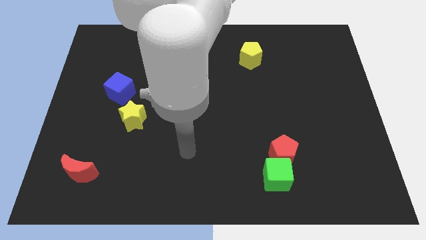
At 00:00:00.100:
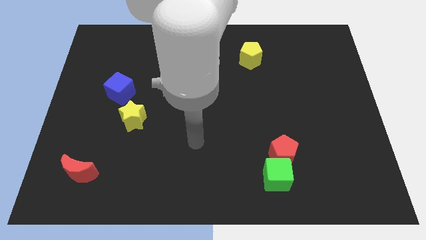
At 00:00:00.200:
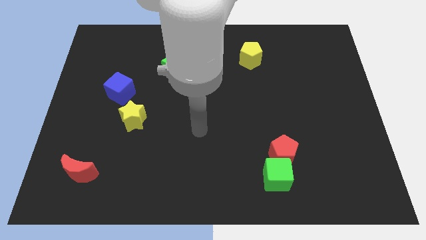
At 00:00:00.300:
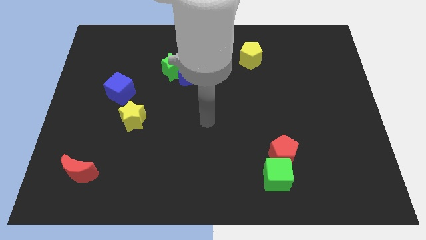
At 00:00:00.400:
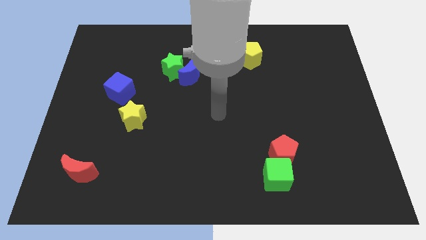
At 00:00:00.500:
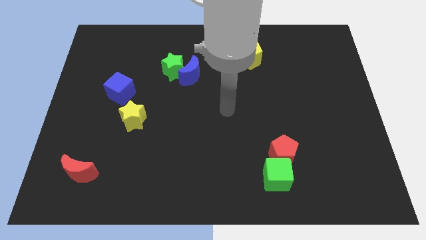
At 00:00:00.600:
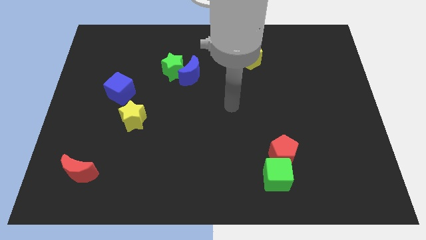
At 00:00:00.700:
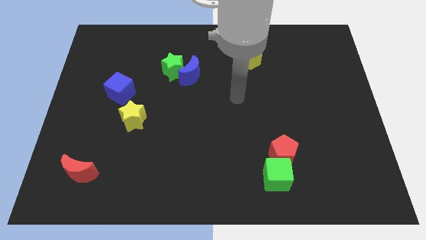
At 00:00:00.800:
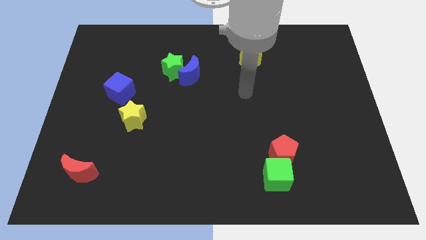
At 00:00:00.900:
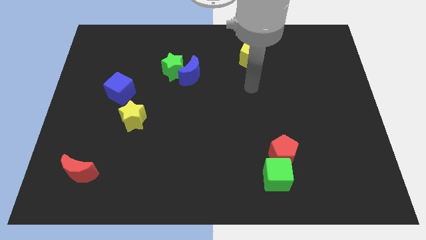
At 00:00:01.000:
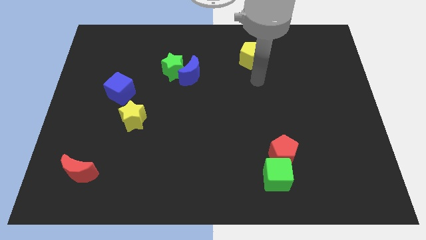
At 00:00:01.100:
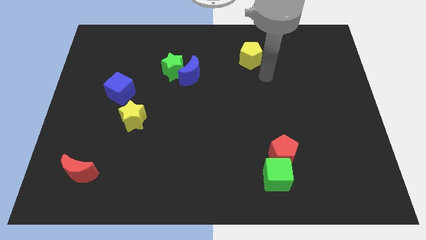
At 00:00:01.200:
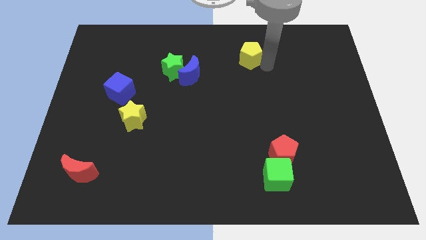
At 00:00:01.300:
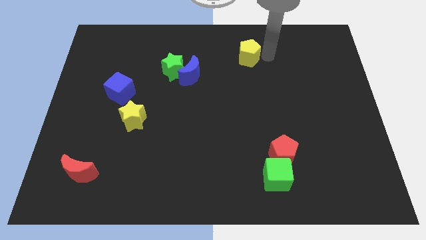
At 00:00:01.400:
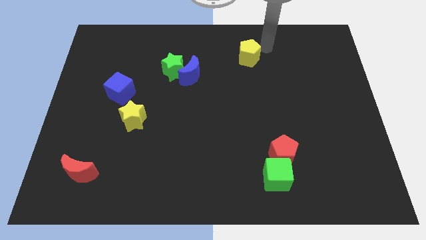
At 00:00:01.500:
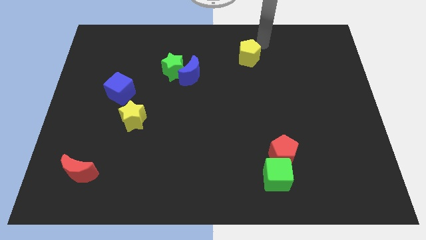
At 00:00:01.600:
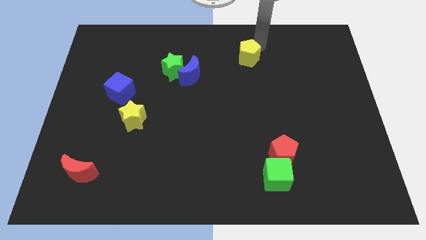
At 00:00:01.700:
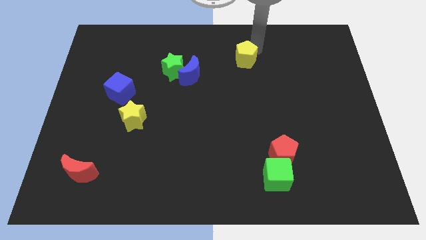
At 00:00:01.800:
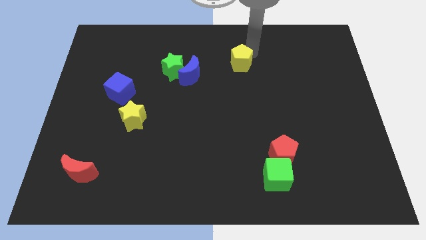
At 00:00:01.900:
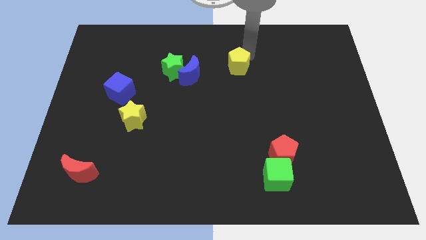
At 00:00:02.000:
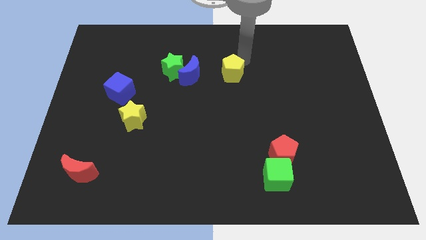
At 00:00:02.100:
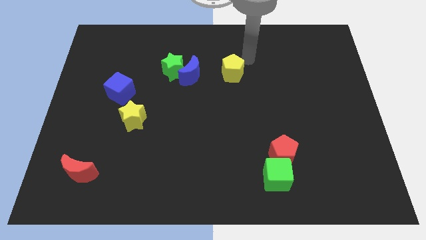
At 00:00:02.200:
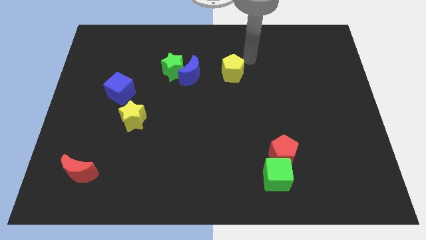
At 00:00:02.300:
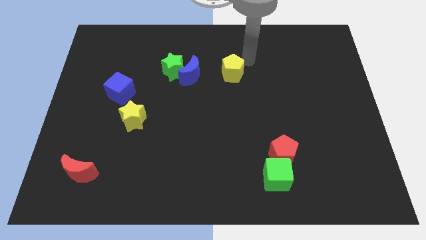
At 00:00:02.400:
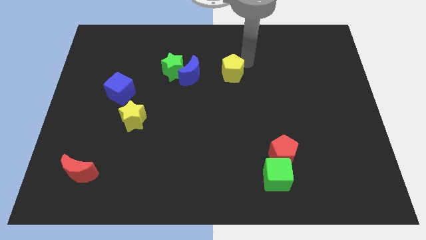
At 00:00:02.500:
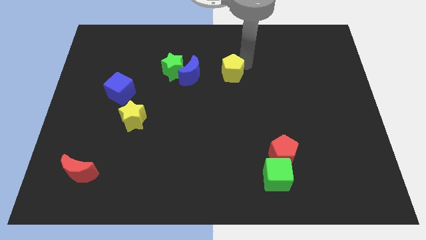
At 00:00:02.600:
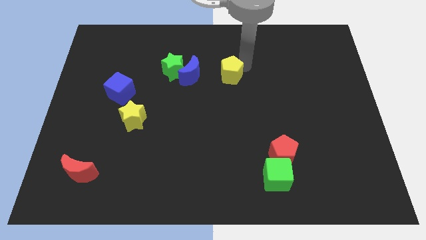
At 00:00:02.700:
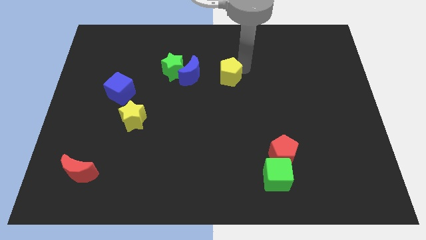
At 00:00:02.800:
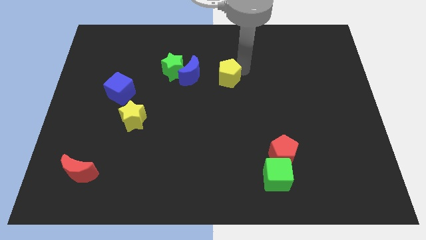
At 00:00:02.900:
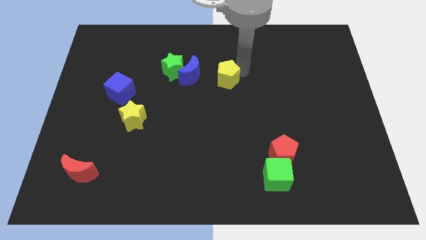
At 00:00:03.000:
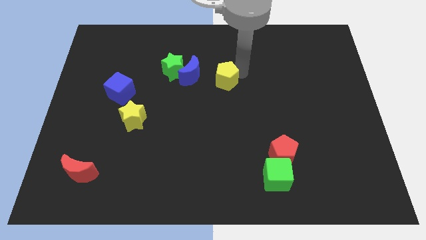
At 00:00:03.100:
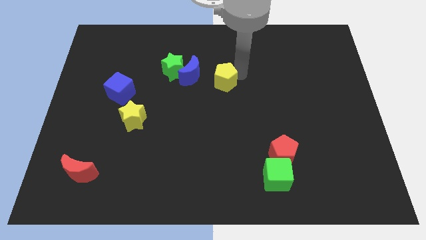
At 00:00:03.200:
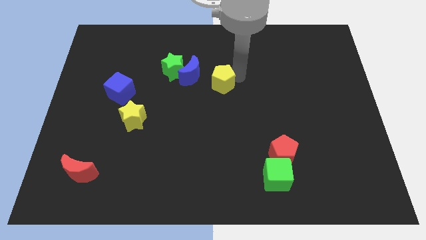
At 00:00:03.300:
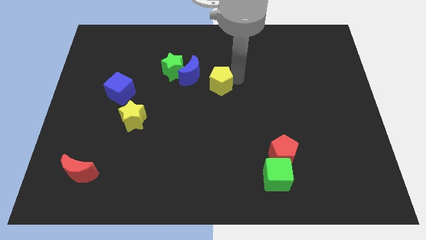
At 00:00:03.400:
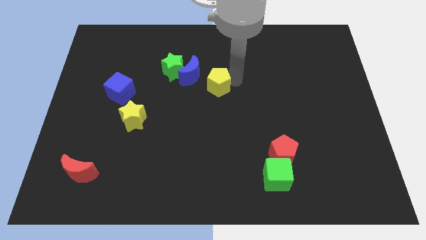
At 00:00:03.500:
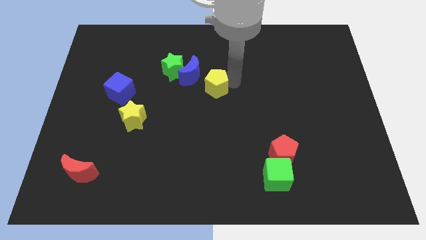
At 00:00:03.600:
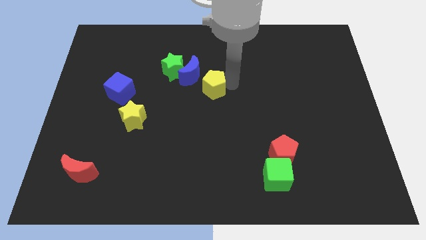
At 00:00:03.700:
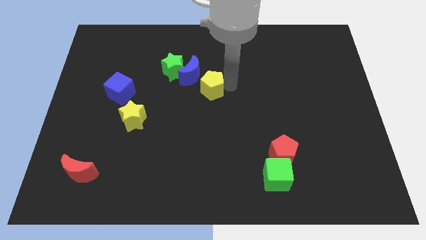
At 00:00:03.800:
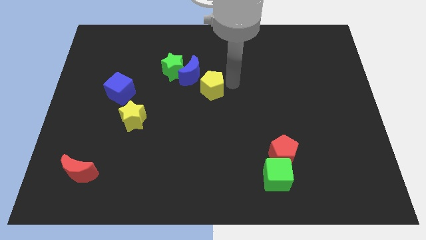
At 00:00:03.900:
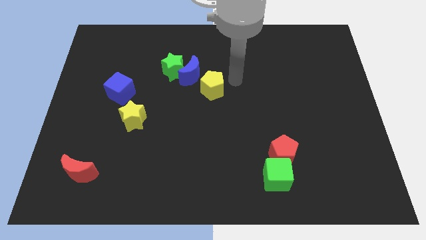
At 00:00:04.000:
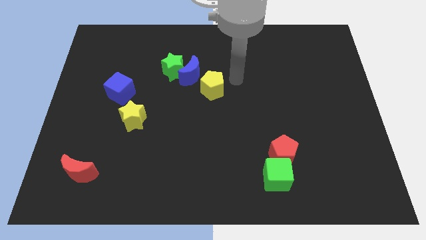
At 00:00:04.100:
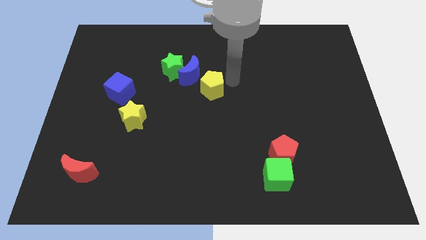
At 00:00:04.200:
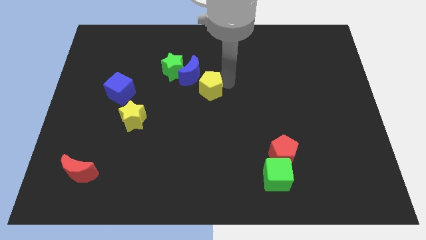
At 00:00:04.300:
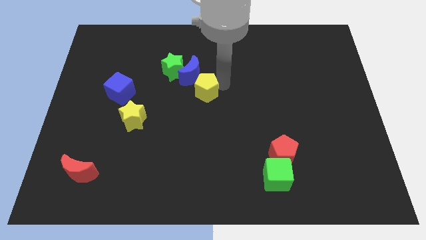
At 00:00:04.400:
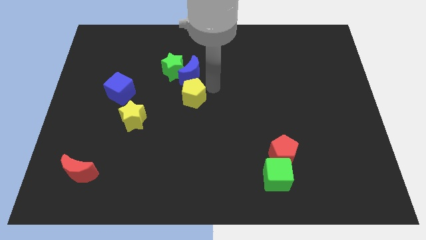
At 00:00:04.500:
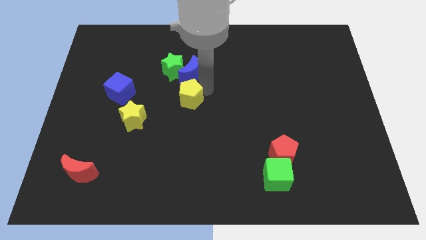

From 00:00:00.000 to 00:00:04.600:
push the yellow pentagon down and to the left

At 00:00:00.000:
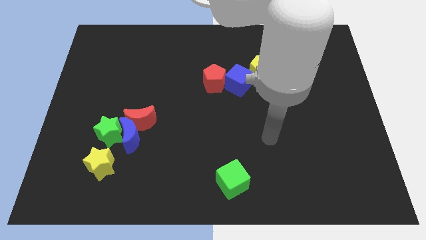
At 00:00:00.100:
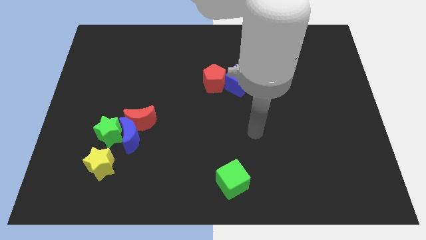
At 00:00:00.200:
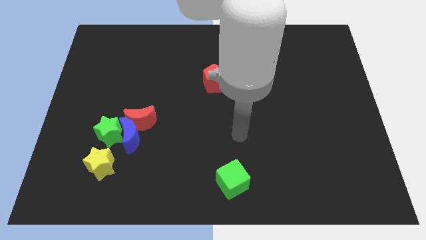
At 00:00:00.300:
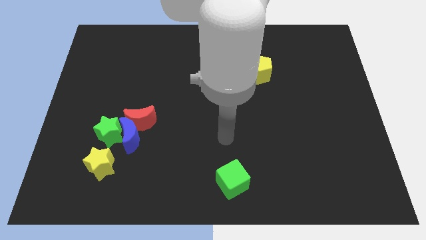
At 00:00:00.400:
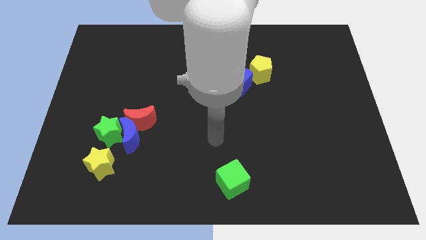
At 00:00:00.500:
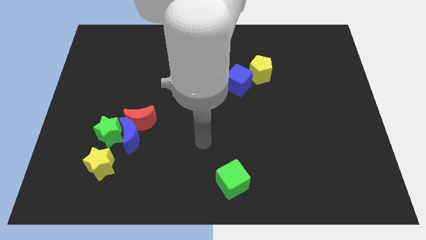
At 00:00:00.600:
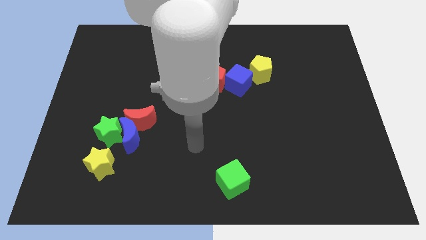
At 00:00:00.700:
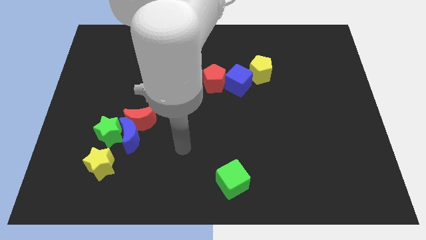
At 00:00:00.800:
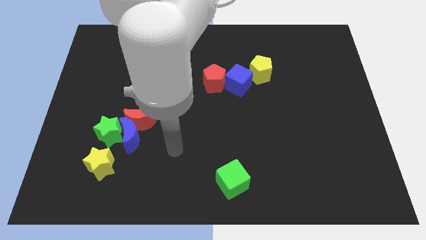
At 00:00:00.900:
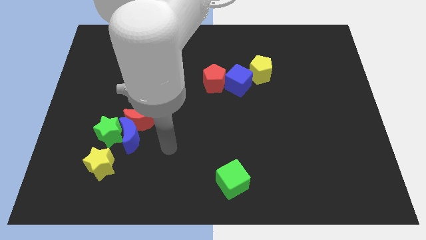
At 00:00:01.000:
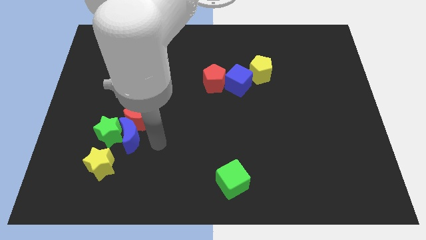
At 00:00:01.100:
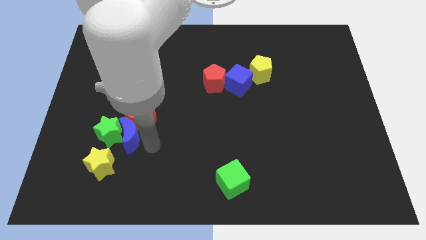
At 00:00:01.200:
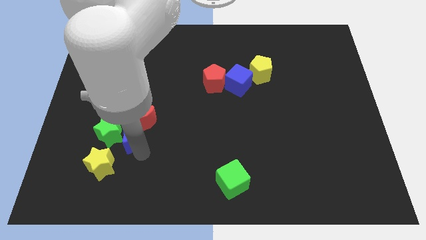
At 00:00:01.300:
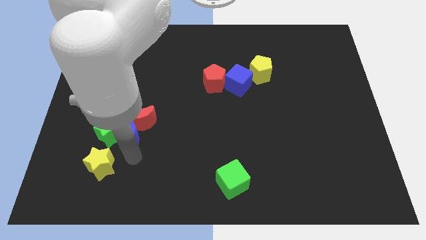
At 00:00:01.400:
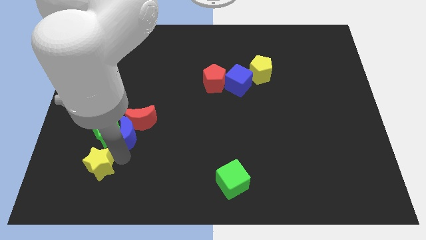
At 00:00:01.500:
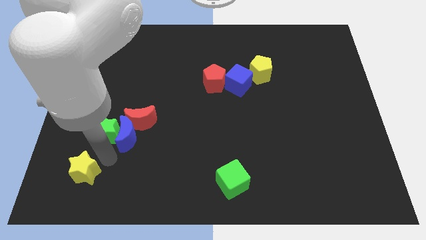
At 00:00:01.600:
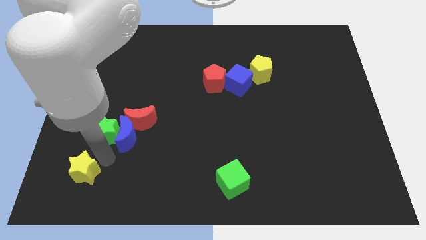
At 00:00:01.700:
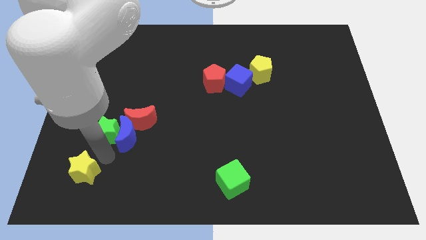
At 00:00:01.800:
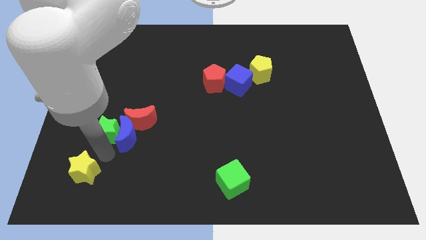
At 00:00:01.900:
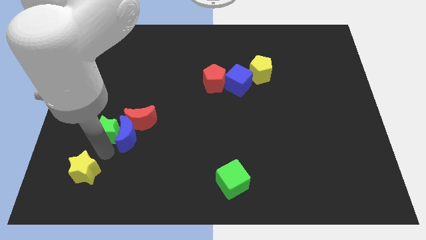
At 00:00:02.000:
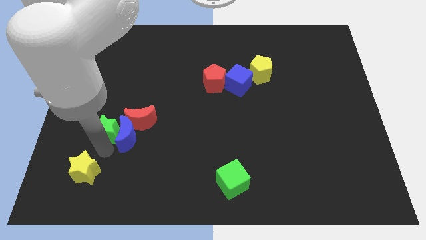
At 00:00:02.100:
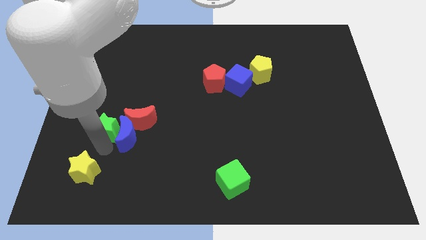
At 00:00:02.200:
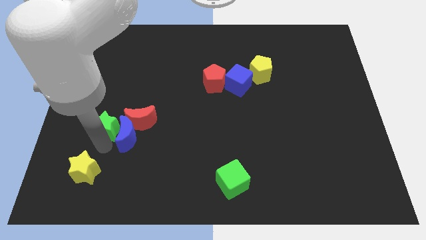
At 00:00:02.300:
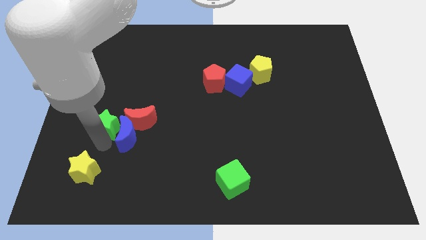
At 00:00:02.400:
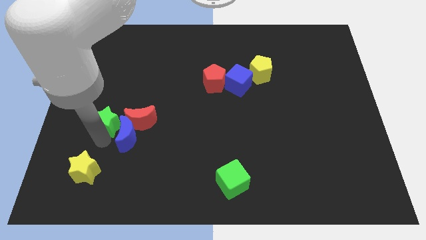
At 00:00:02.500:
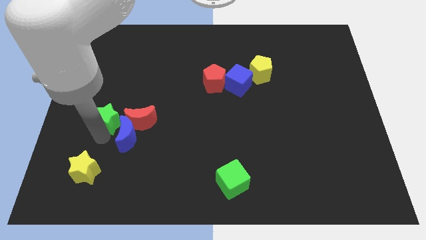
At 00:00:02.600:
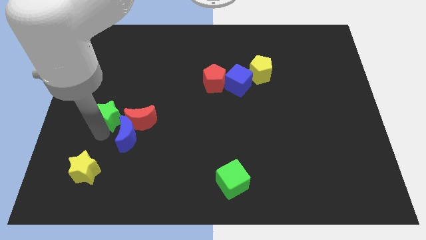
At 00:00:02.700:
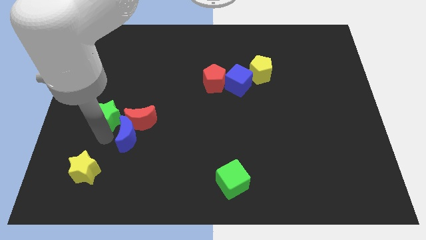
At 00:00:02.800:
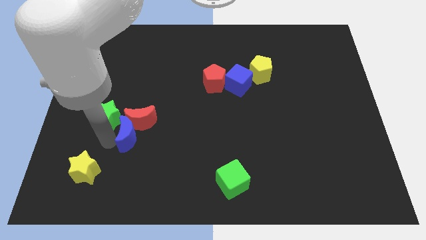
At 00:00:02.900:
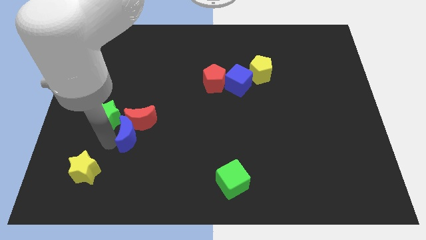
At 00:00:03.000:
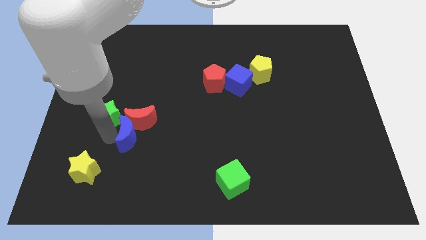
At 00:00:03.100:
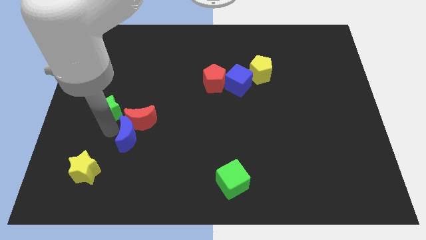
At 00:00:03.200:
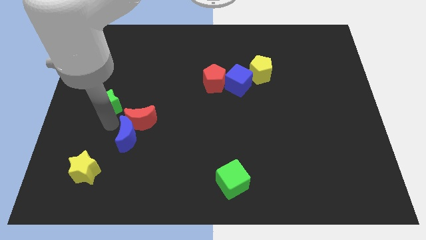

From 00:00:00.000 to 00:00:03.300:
slightly push the green star upwards
